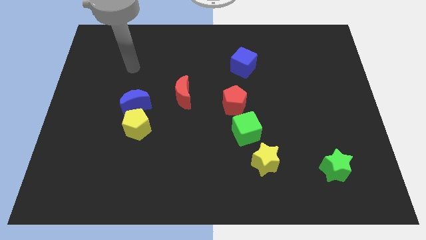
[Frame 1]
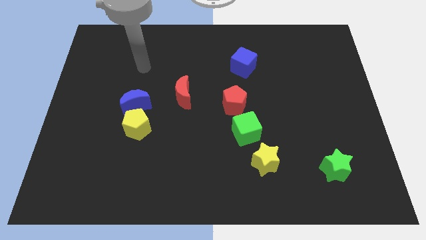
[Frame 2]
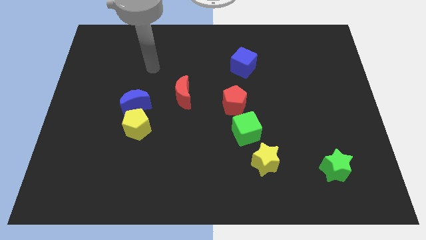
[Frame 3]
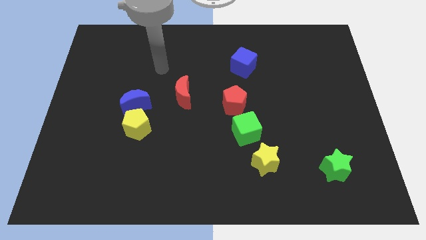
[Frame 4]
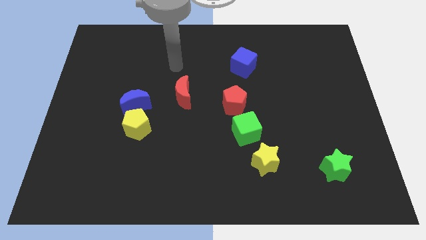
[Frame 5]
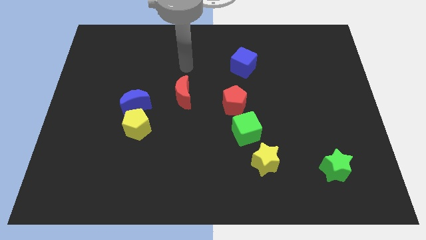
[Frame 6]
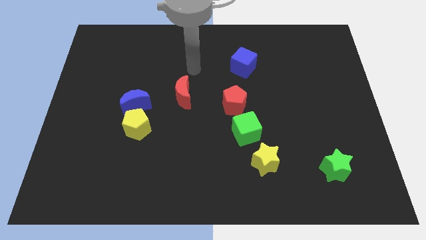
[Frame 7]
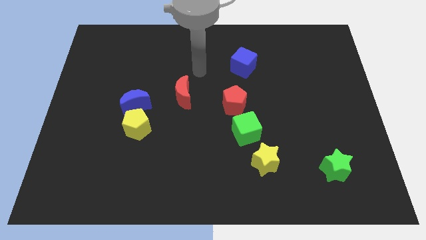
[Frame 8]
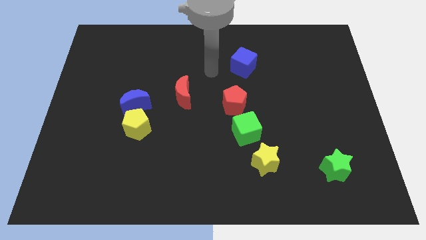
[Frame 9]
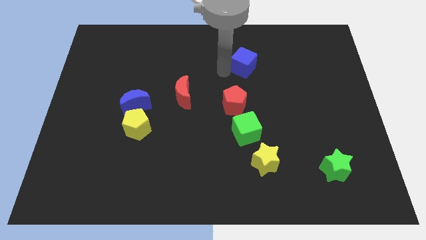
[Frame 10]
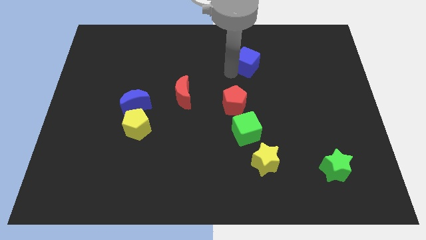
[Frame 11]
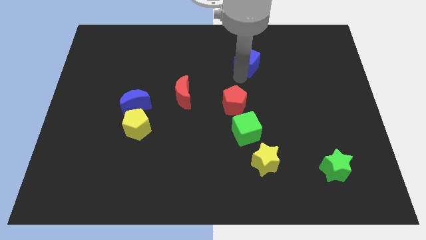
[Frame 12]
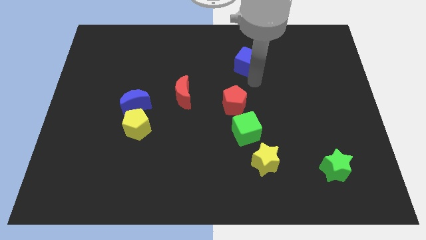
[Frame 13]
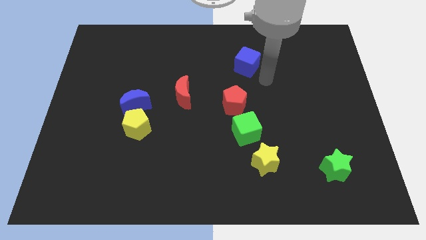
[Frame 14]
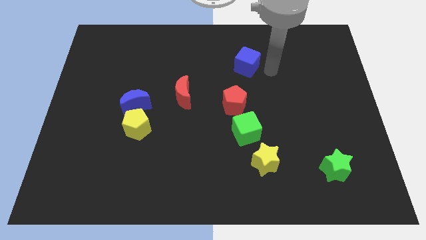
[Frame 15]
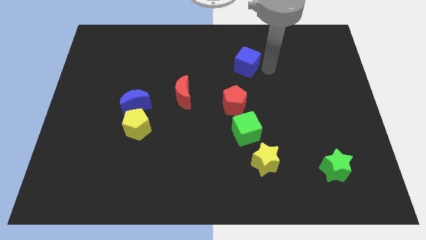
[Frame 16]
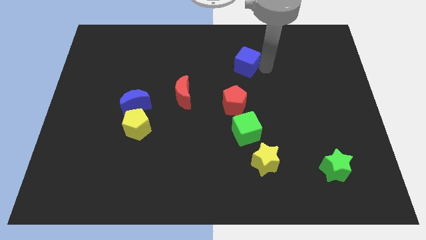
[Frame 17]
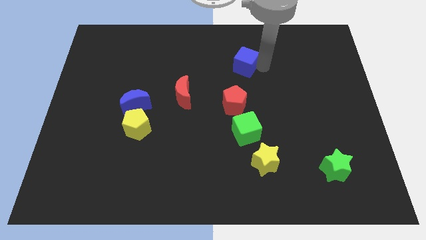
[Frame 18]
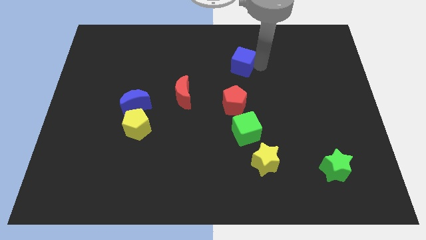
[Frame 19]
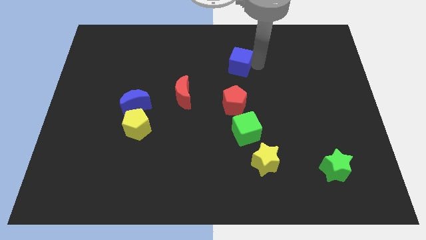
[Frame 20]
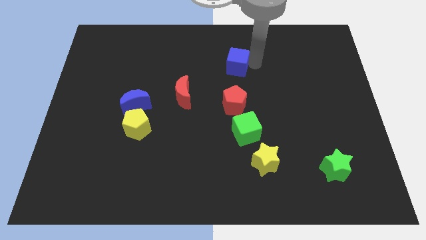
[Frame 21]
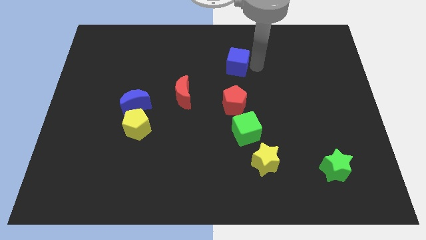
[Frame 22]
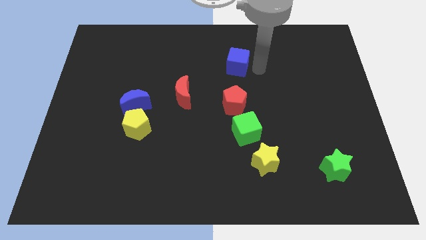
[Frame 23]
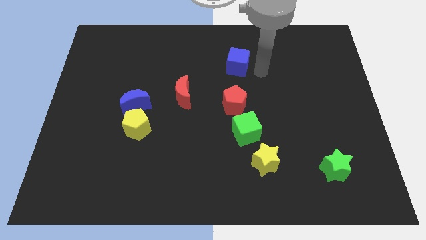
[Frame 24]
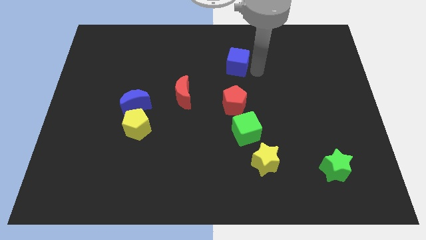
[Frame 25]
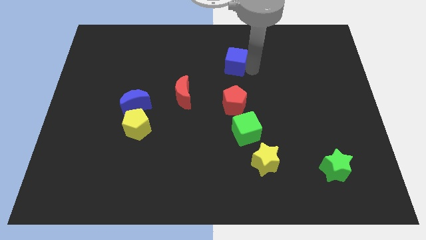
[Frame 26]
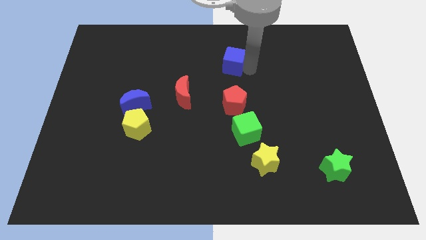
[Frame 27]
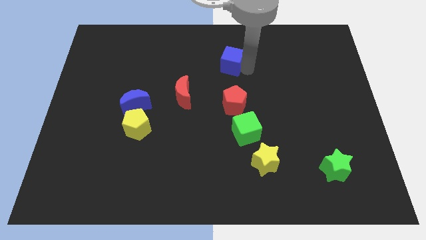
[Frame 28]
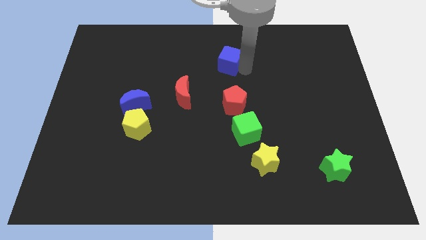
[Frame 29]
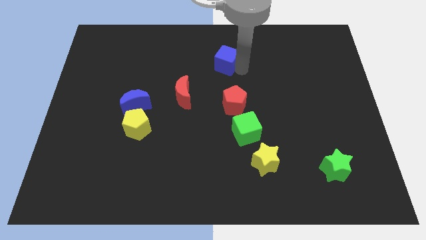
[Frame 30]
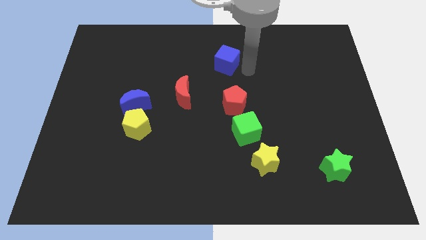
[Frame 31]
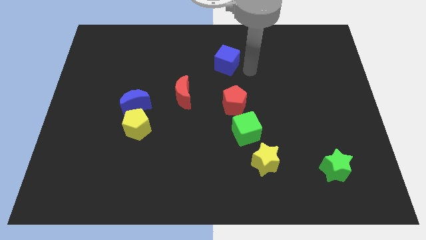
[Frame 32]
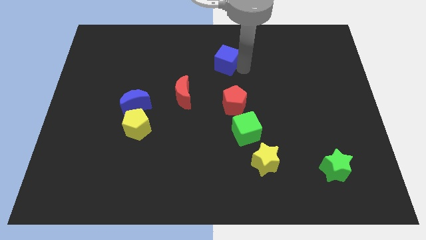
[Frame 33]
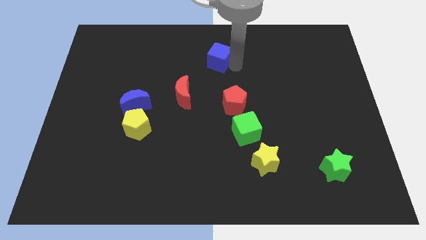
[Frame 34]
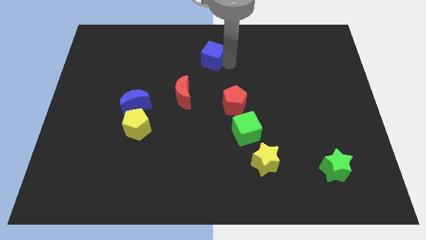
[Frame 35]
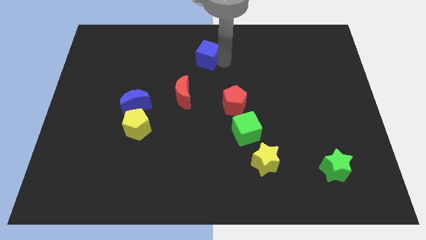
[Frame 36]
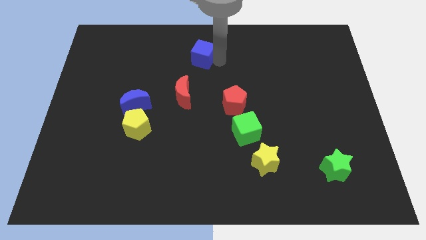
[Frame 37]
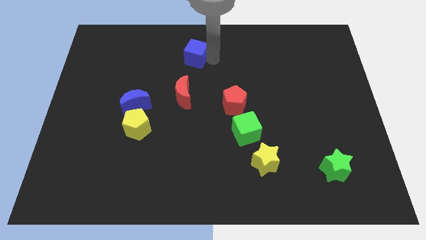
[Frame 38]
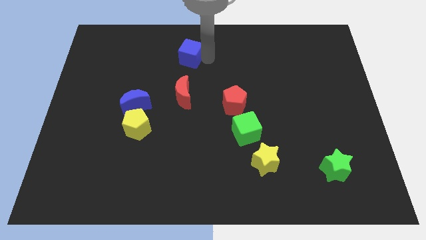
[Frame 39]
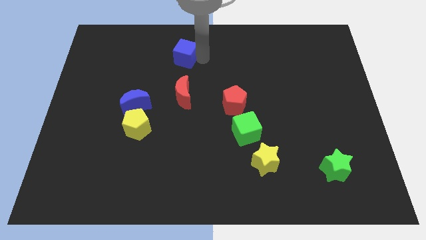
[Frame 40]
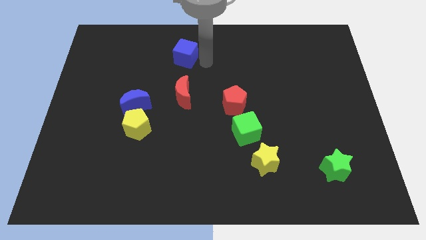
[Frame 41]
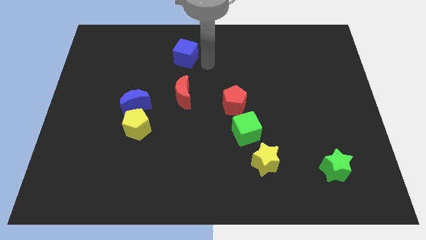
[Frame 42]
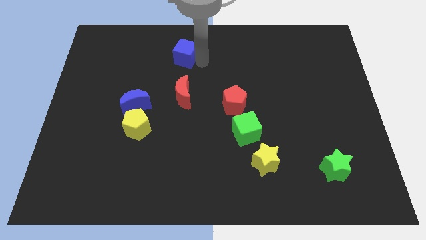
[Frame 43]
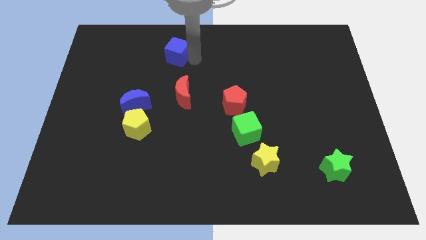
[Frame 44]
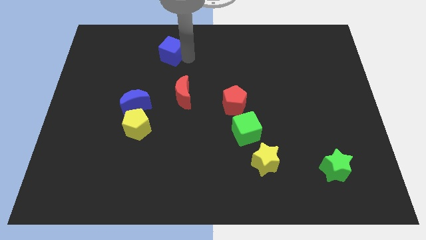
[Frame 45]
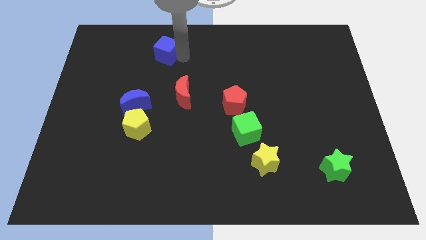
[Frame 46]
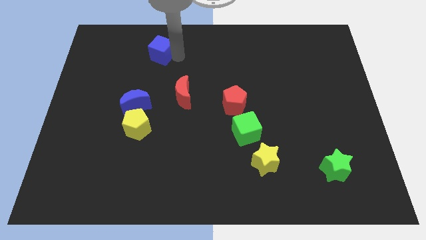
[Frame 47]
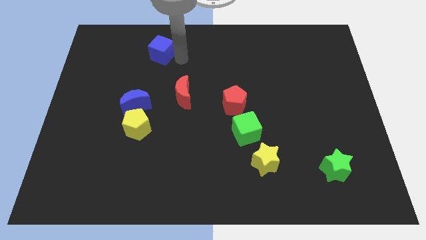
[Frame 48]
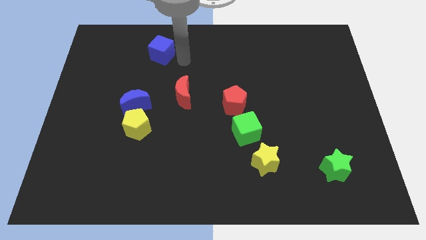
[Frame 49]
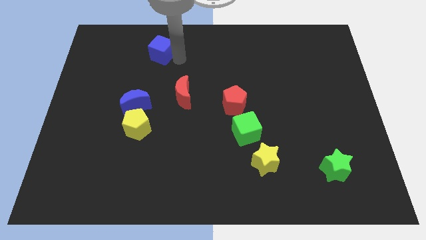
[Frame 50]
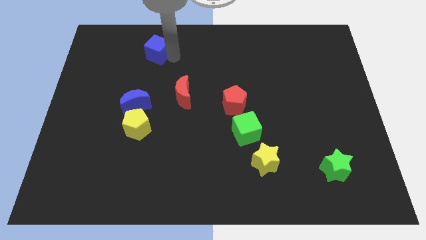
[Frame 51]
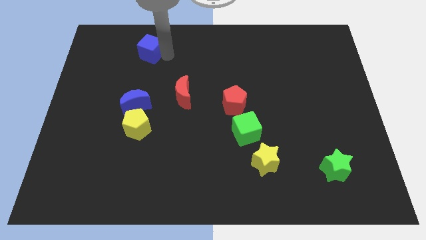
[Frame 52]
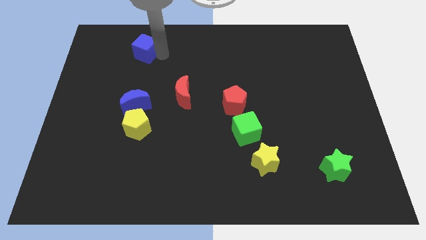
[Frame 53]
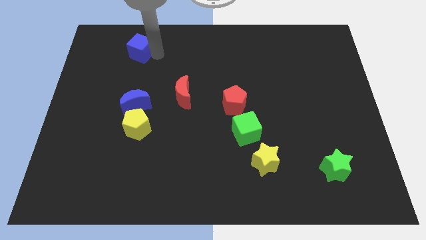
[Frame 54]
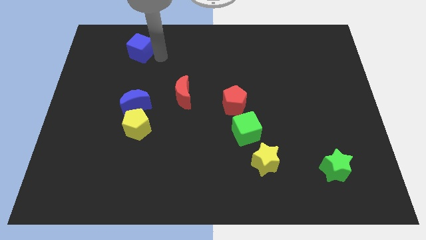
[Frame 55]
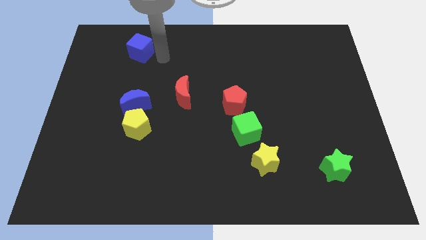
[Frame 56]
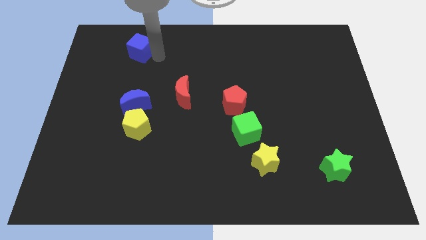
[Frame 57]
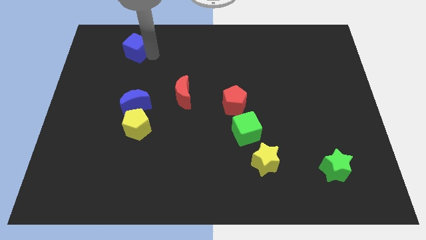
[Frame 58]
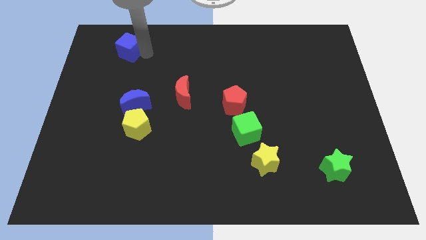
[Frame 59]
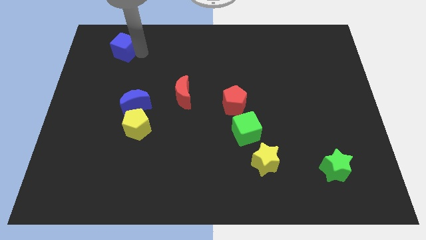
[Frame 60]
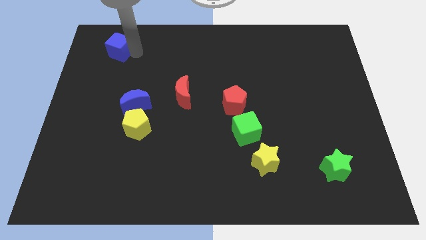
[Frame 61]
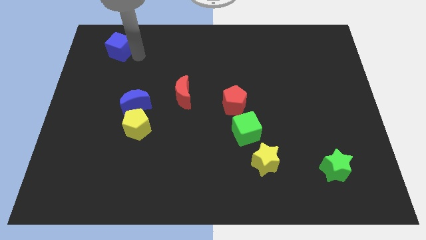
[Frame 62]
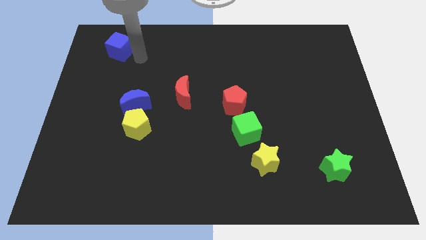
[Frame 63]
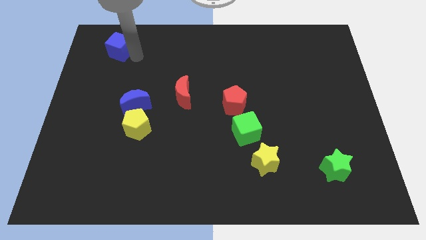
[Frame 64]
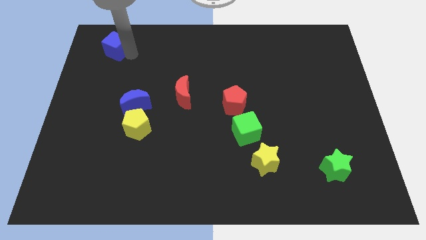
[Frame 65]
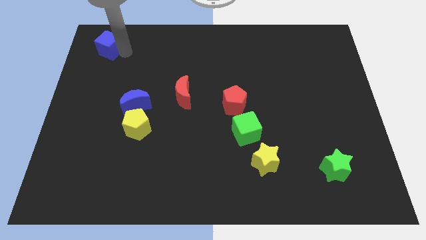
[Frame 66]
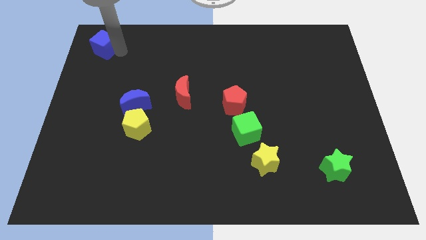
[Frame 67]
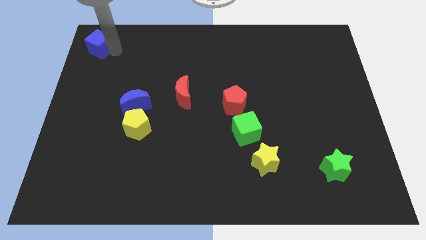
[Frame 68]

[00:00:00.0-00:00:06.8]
push the blue cube to the top left corner

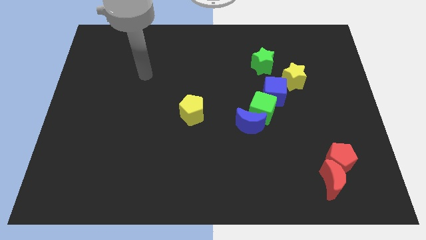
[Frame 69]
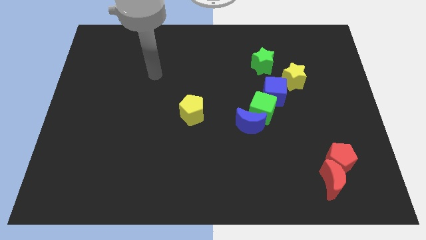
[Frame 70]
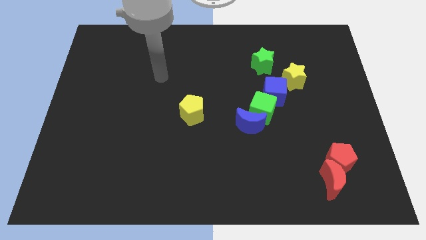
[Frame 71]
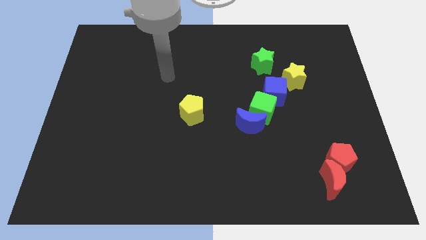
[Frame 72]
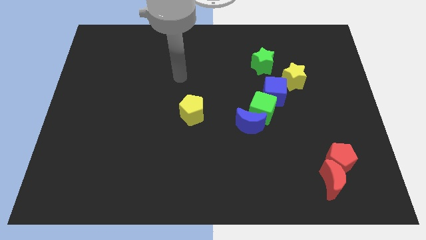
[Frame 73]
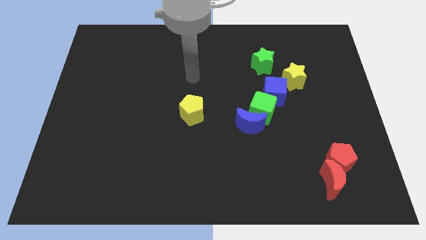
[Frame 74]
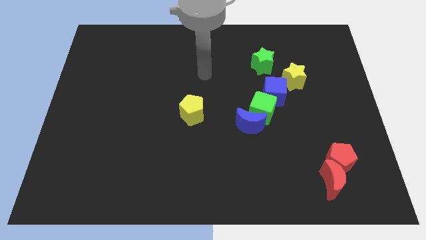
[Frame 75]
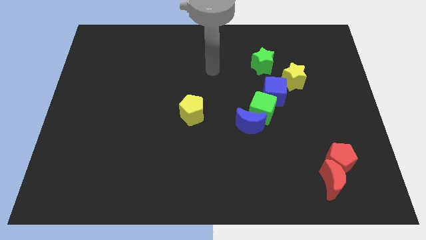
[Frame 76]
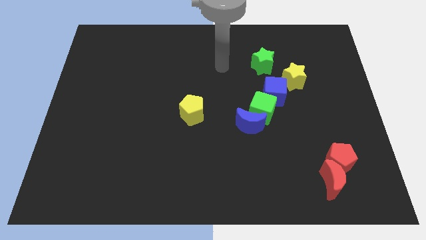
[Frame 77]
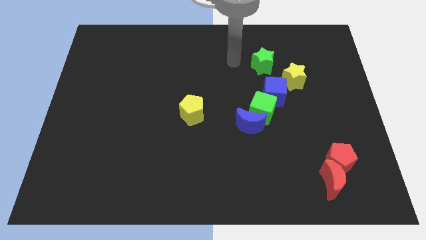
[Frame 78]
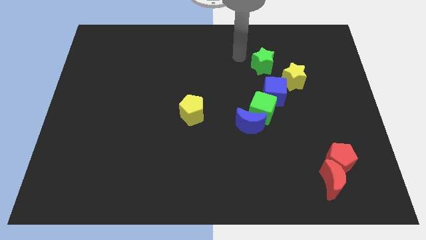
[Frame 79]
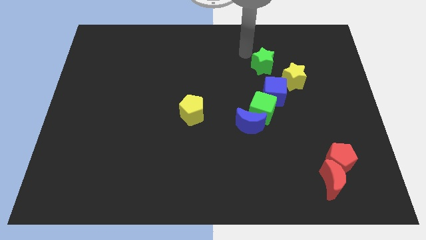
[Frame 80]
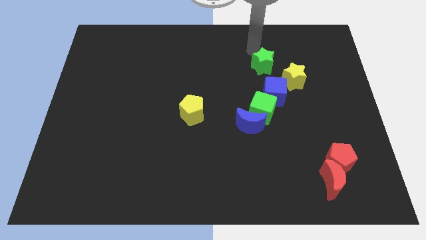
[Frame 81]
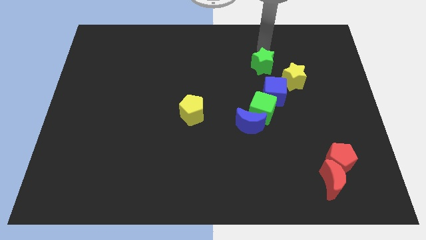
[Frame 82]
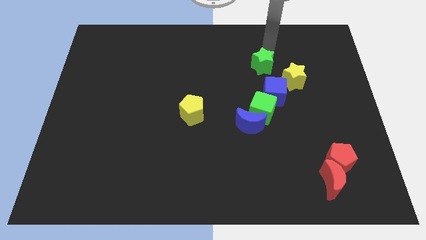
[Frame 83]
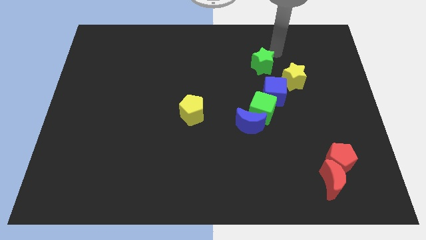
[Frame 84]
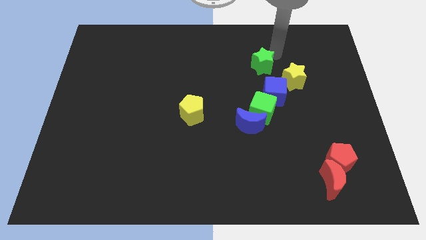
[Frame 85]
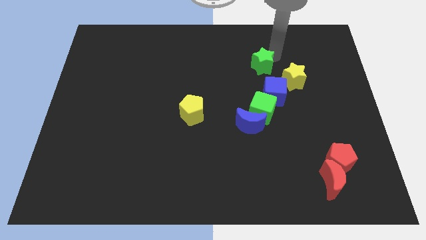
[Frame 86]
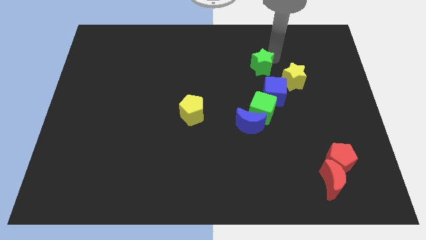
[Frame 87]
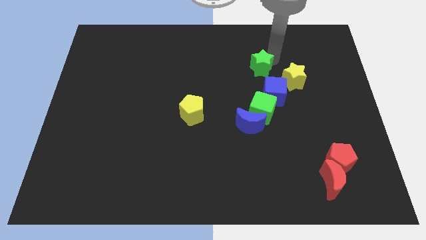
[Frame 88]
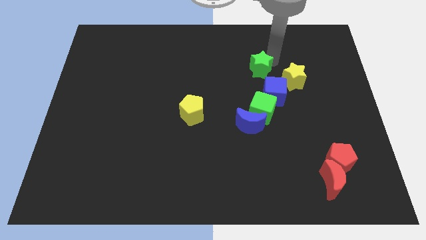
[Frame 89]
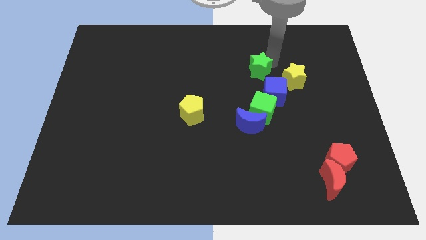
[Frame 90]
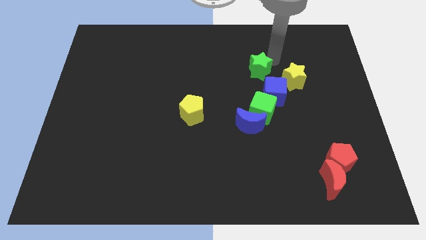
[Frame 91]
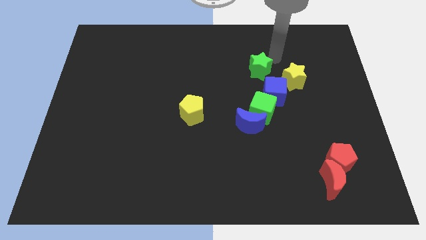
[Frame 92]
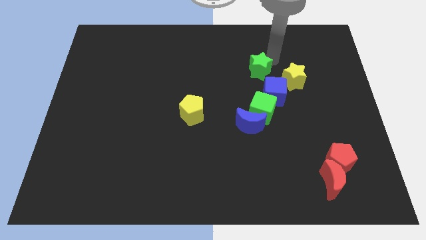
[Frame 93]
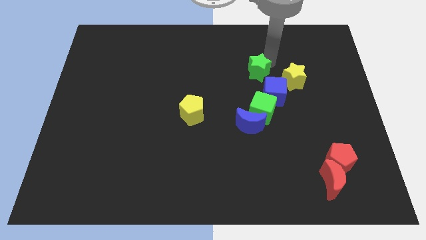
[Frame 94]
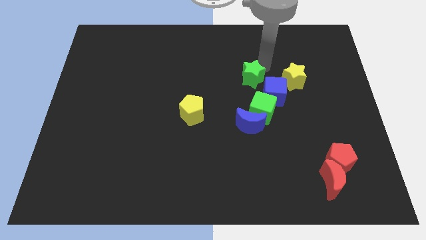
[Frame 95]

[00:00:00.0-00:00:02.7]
move the green star to the center of the board
